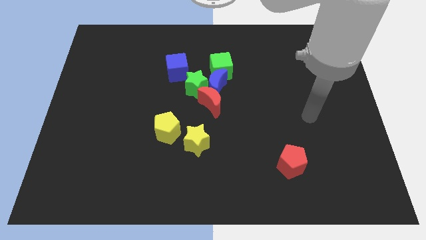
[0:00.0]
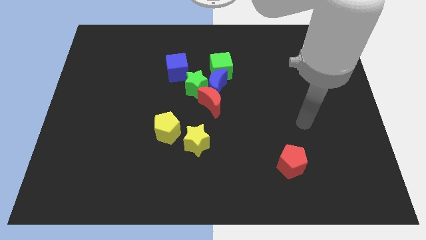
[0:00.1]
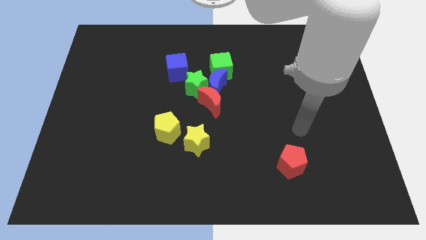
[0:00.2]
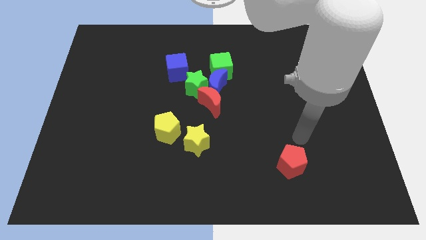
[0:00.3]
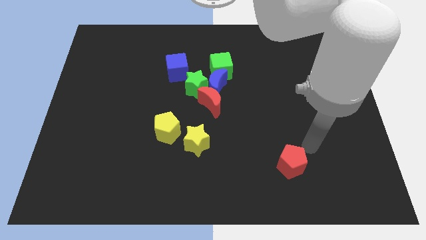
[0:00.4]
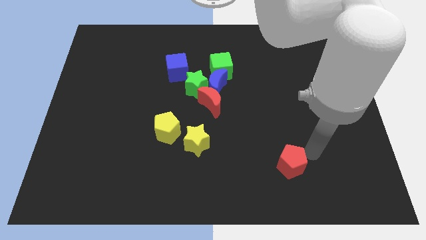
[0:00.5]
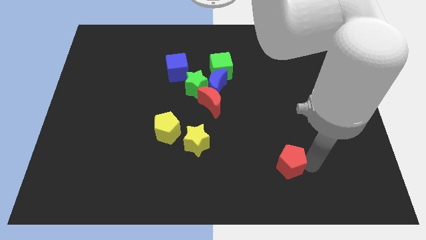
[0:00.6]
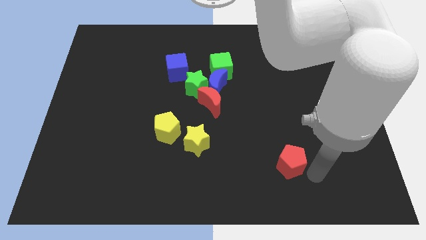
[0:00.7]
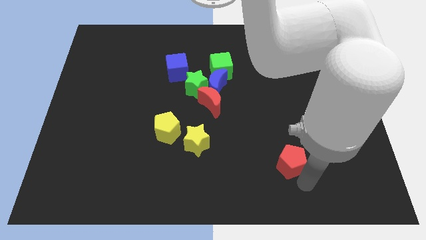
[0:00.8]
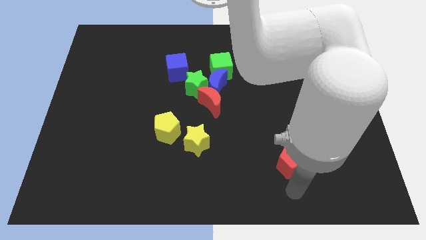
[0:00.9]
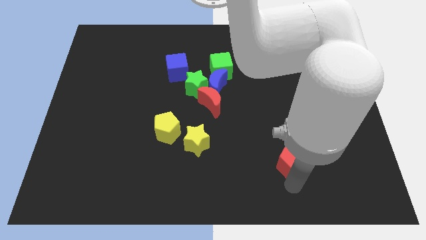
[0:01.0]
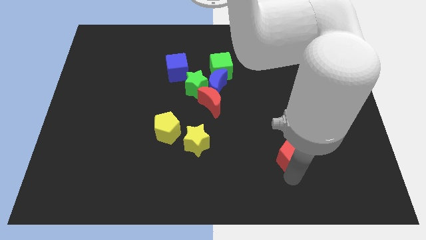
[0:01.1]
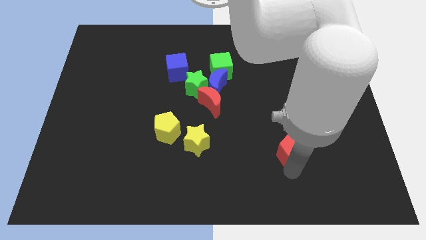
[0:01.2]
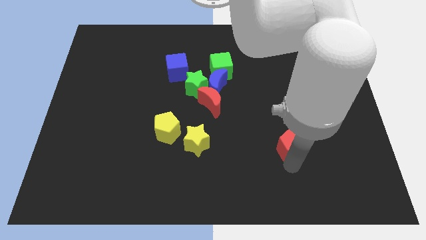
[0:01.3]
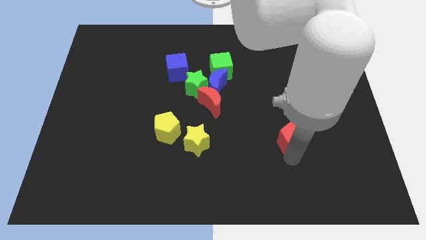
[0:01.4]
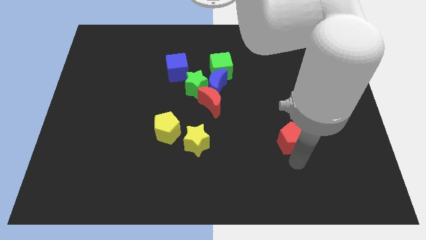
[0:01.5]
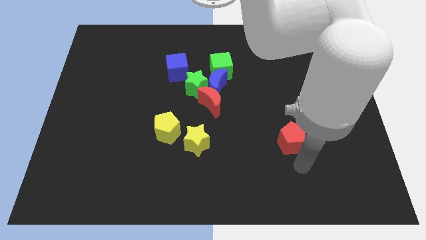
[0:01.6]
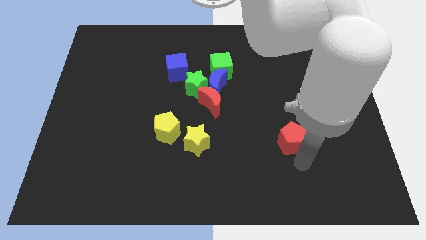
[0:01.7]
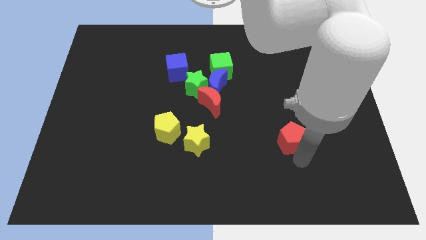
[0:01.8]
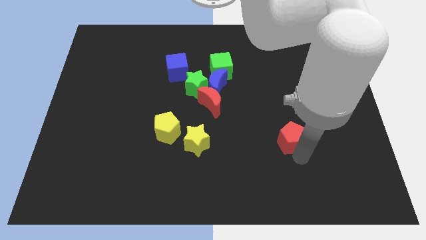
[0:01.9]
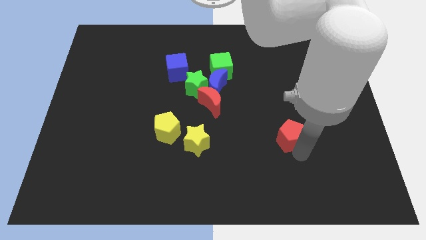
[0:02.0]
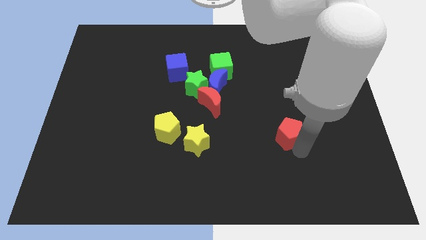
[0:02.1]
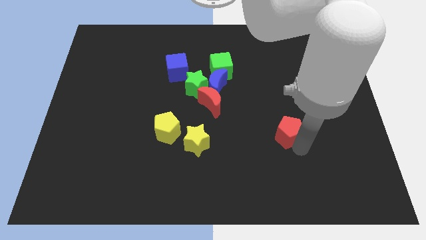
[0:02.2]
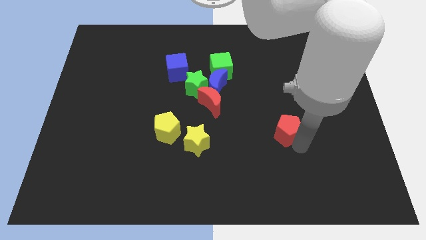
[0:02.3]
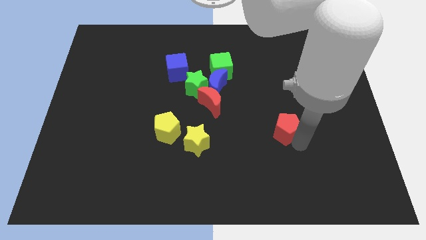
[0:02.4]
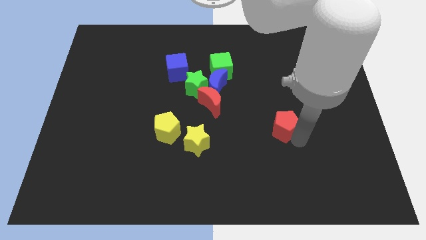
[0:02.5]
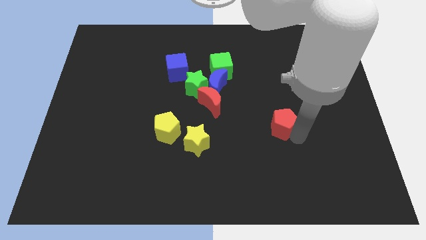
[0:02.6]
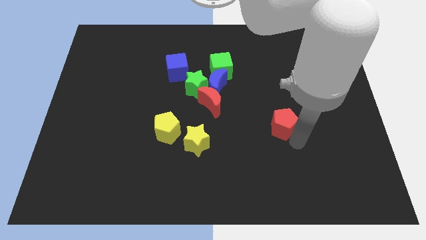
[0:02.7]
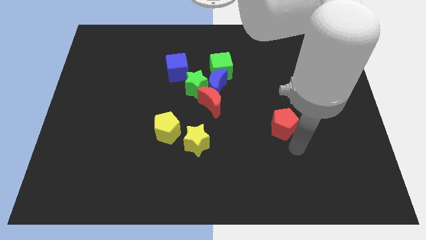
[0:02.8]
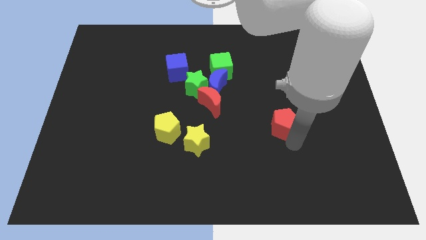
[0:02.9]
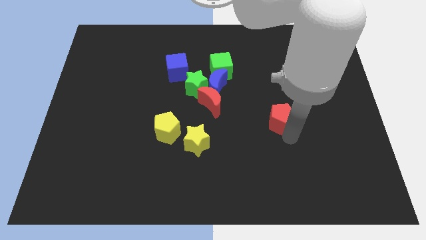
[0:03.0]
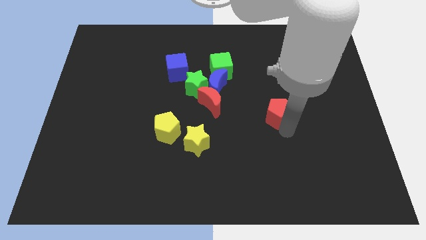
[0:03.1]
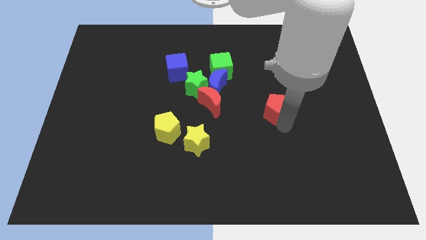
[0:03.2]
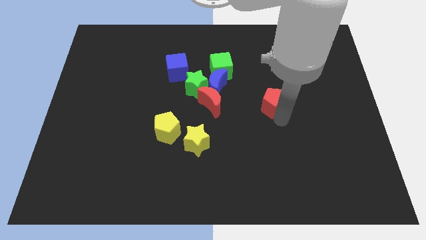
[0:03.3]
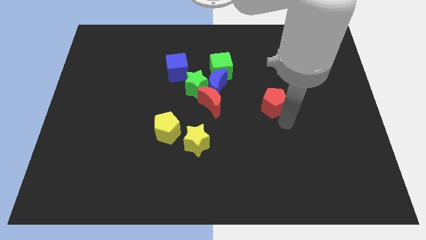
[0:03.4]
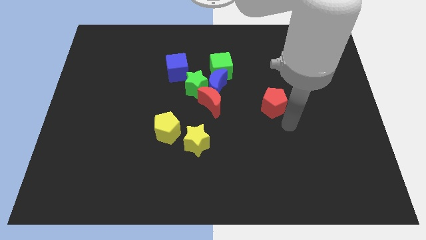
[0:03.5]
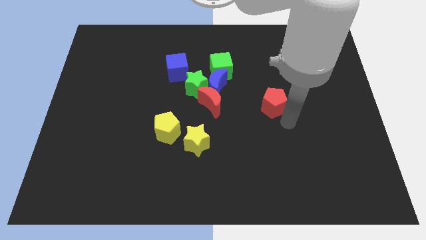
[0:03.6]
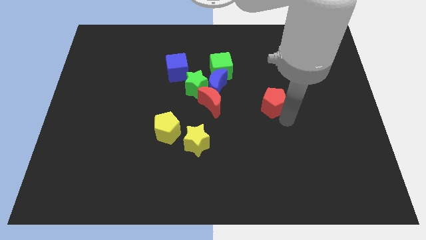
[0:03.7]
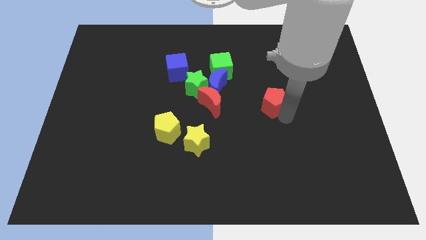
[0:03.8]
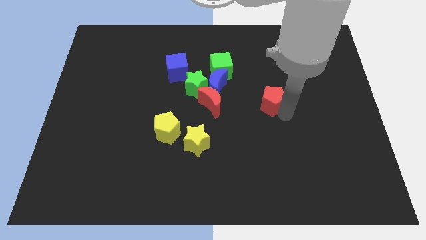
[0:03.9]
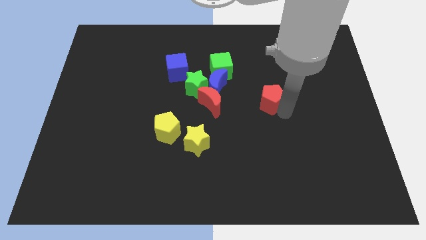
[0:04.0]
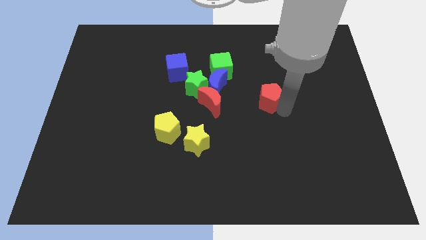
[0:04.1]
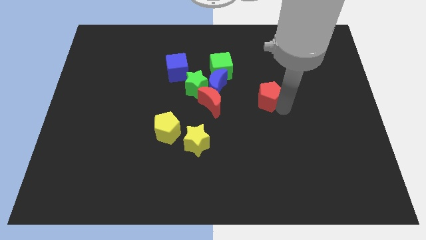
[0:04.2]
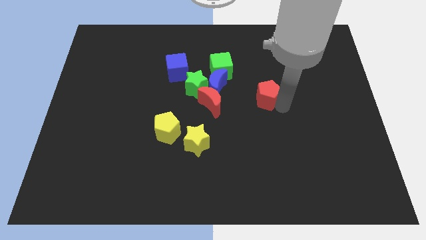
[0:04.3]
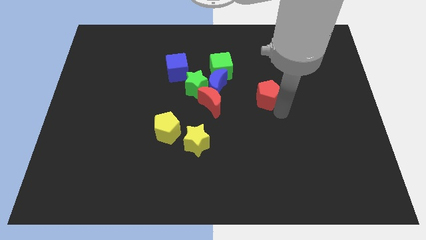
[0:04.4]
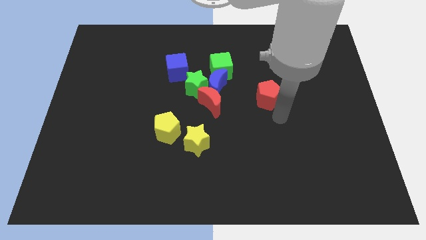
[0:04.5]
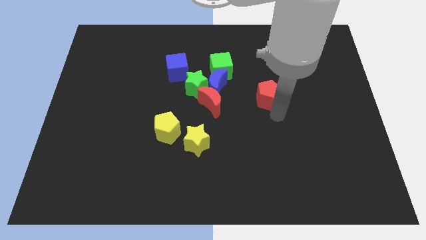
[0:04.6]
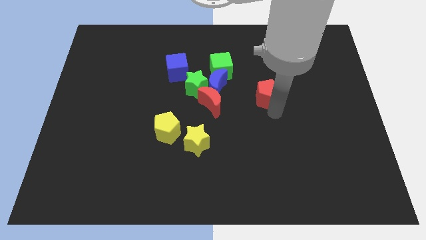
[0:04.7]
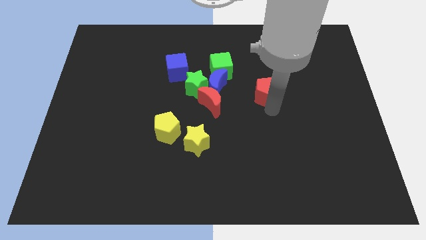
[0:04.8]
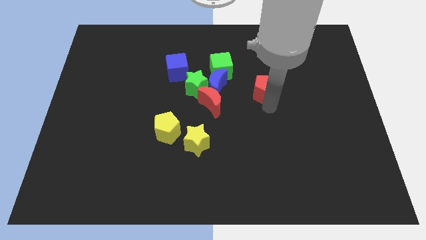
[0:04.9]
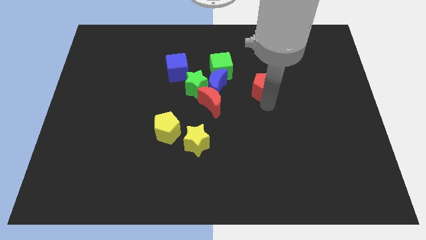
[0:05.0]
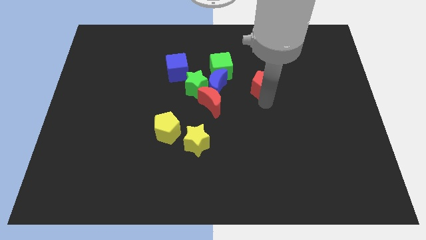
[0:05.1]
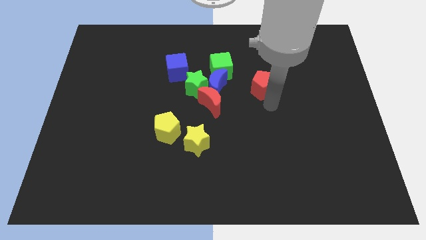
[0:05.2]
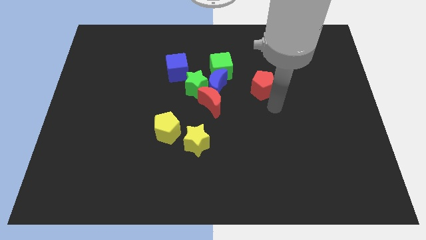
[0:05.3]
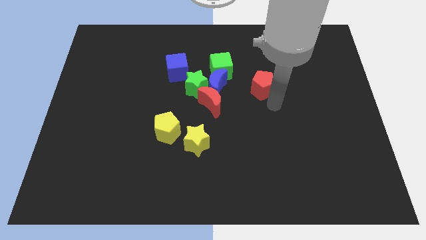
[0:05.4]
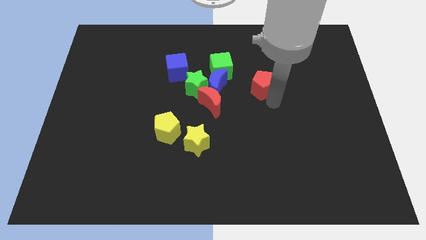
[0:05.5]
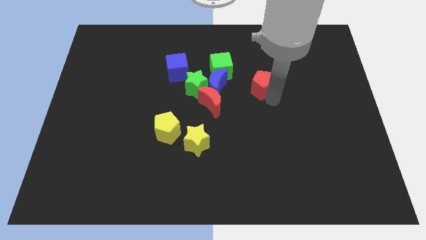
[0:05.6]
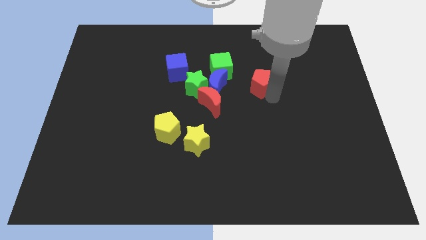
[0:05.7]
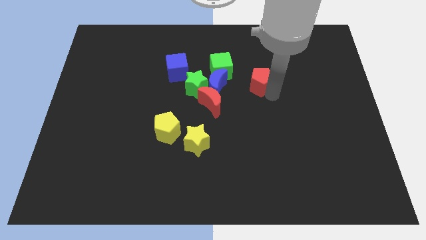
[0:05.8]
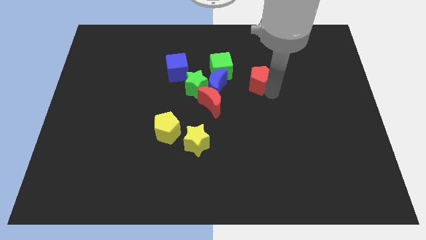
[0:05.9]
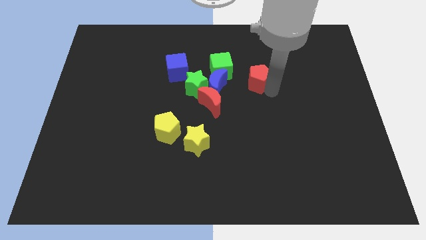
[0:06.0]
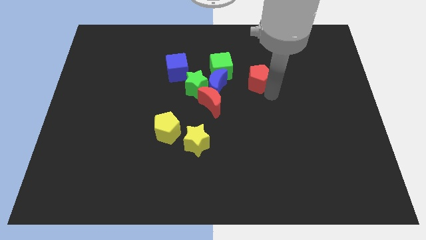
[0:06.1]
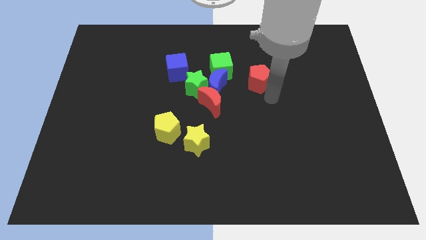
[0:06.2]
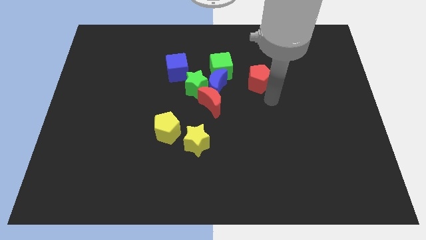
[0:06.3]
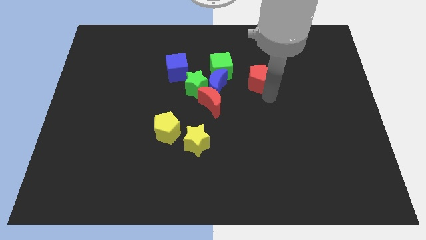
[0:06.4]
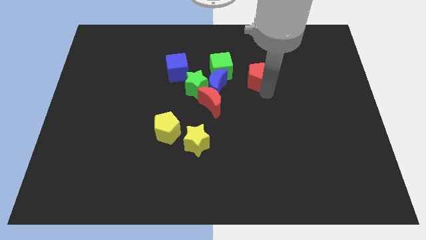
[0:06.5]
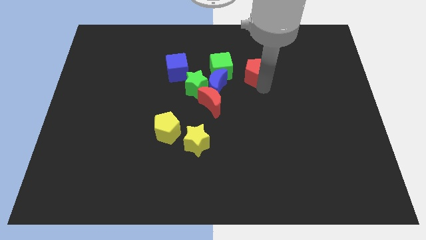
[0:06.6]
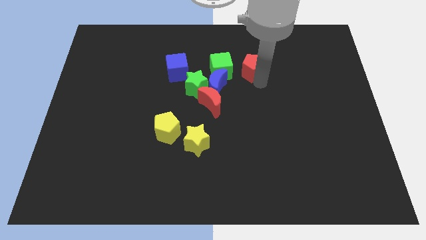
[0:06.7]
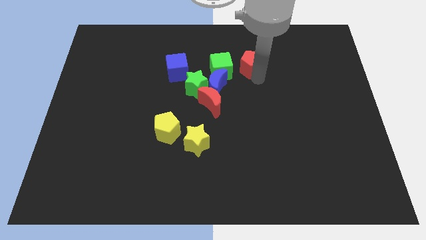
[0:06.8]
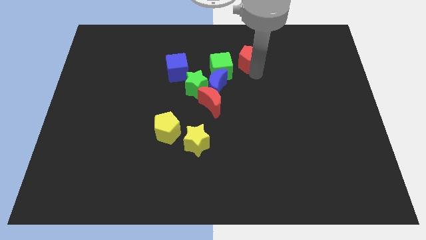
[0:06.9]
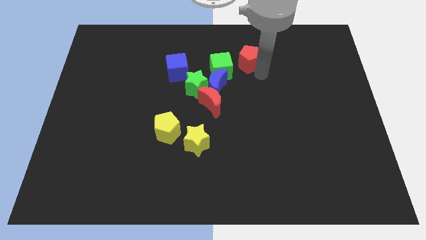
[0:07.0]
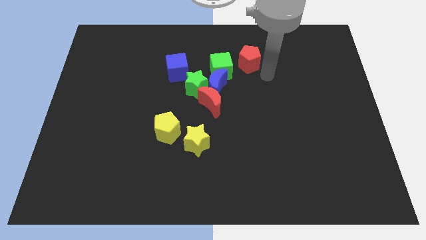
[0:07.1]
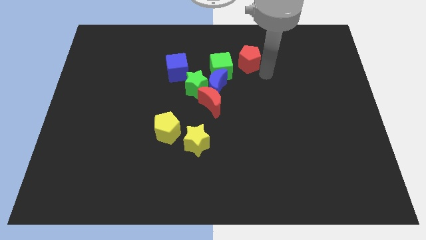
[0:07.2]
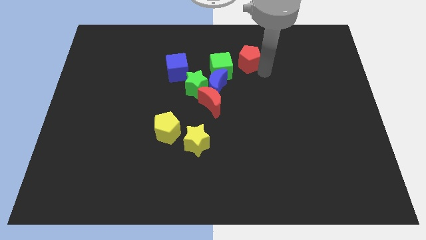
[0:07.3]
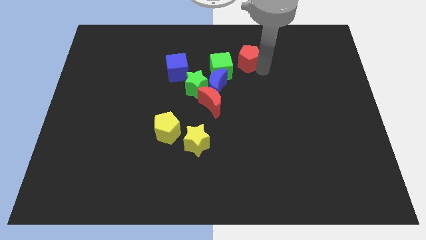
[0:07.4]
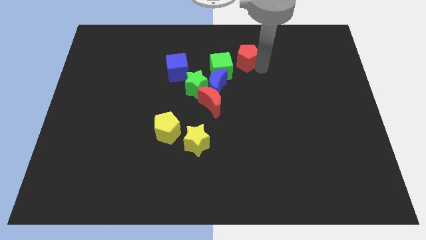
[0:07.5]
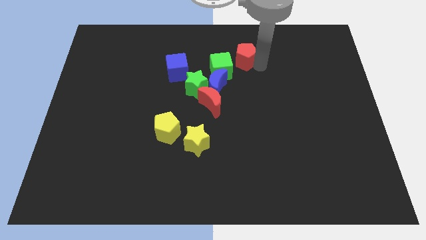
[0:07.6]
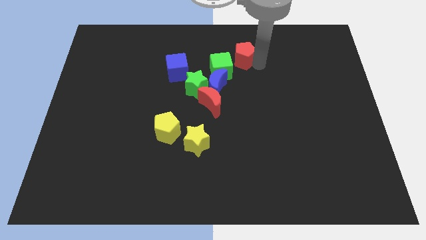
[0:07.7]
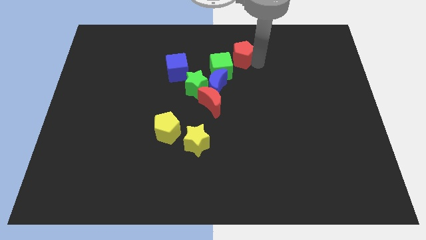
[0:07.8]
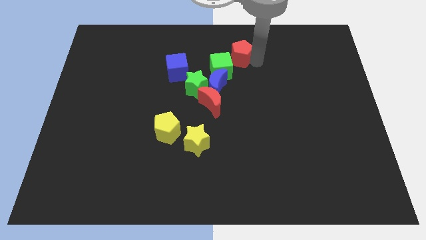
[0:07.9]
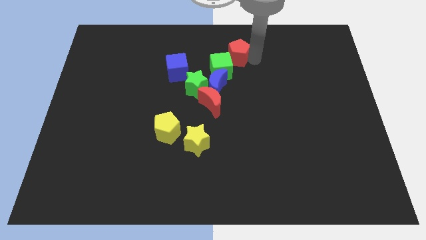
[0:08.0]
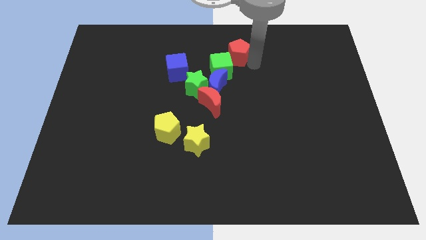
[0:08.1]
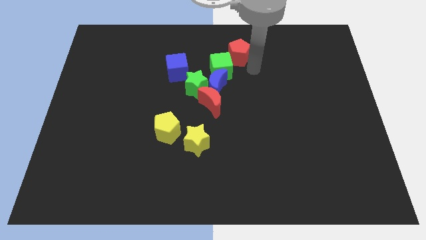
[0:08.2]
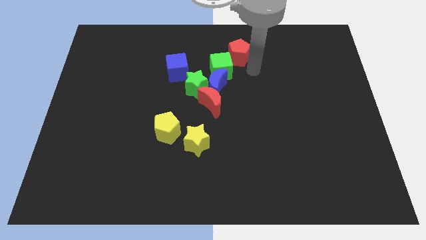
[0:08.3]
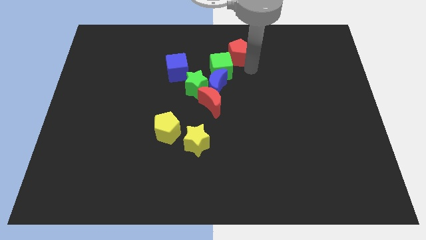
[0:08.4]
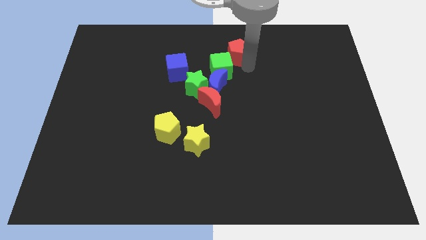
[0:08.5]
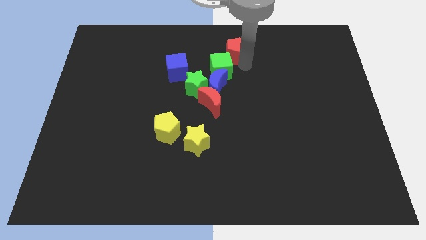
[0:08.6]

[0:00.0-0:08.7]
put the red pentagon to the top
